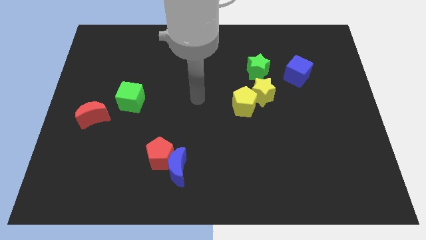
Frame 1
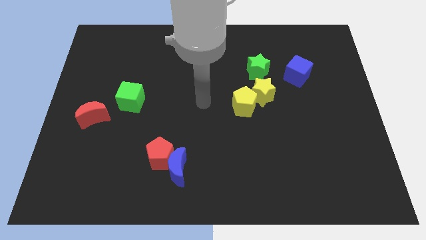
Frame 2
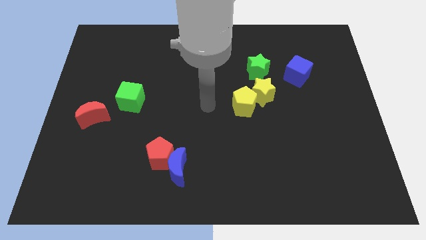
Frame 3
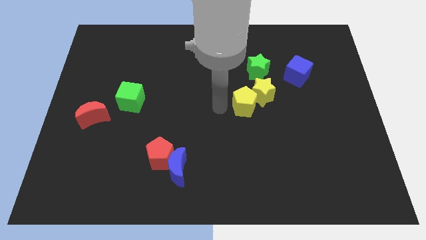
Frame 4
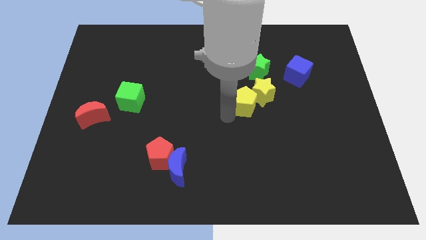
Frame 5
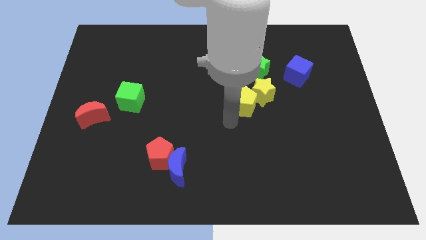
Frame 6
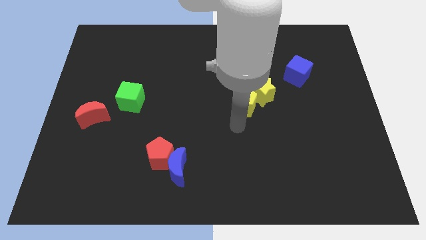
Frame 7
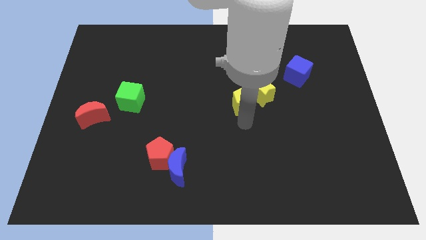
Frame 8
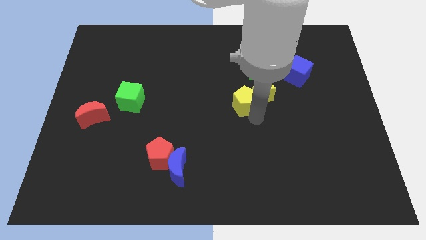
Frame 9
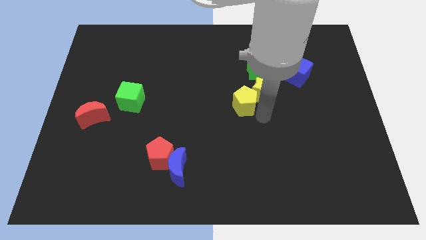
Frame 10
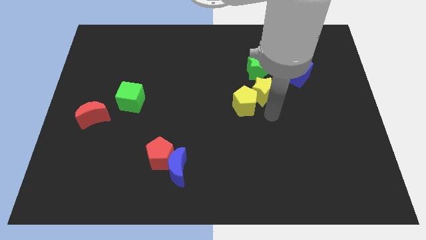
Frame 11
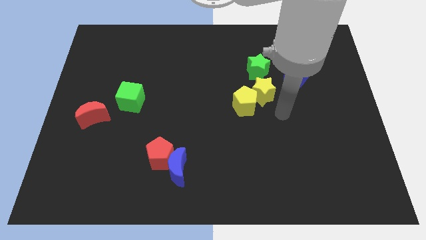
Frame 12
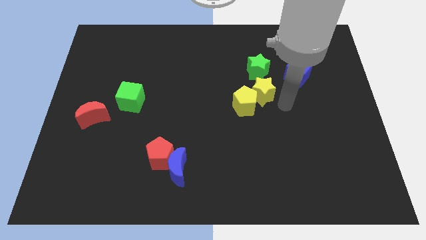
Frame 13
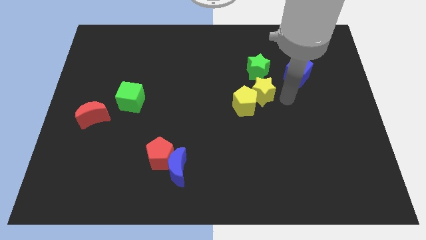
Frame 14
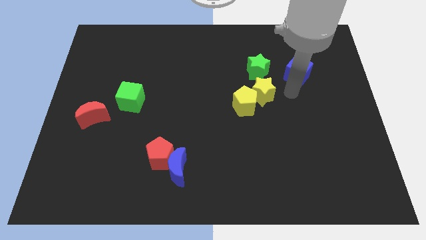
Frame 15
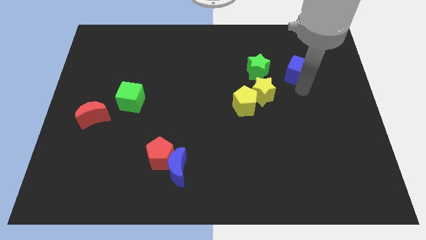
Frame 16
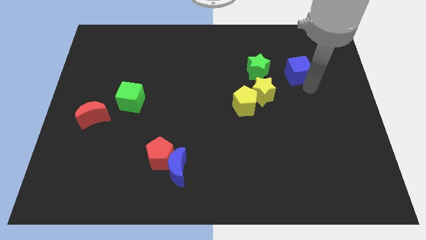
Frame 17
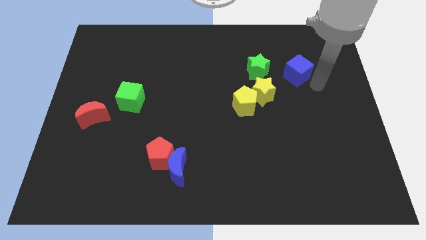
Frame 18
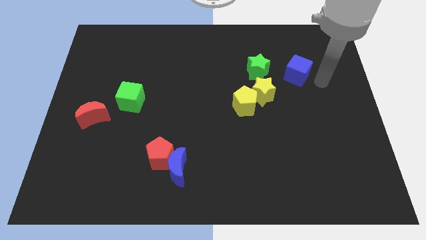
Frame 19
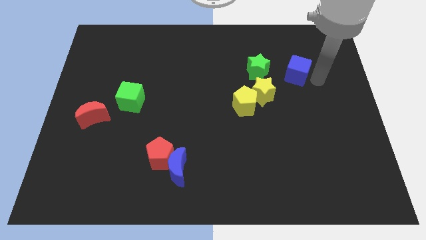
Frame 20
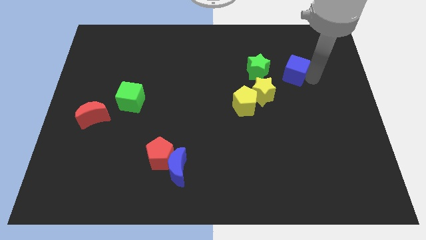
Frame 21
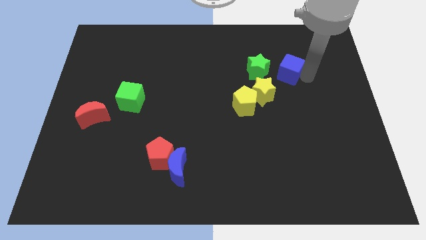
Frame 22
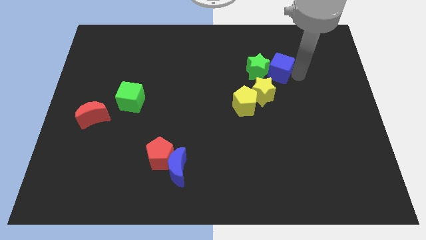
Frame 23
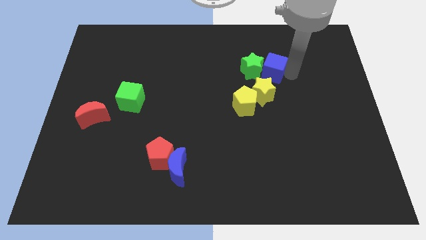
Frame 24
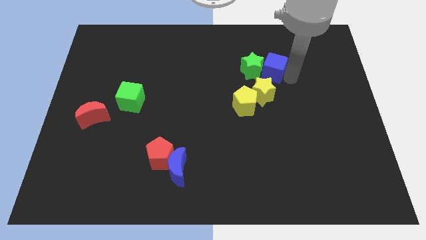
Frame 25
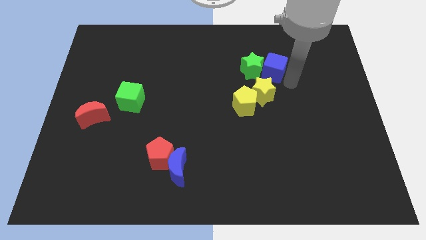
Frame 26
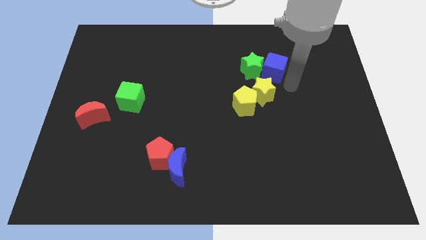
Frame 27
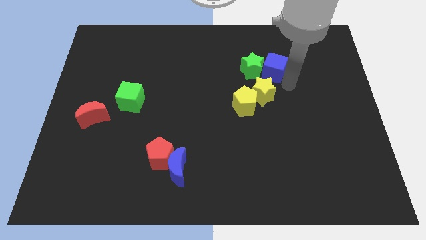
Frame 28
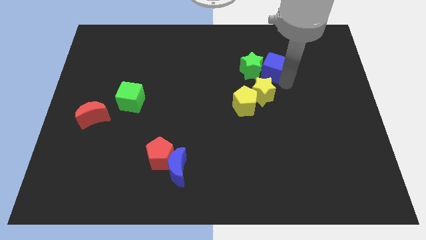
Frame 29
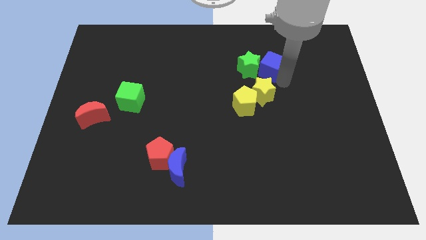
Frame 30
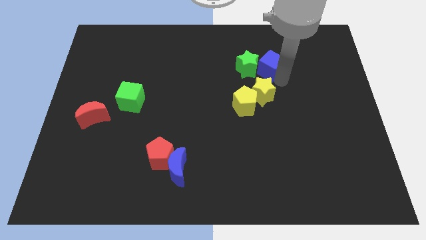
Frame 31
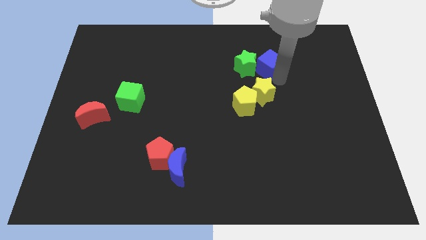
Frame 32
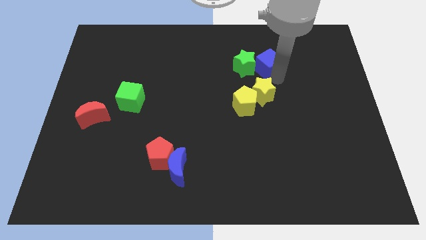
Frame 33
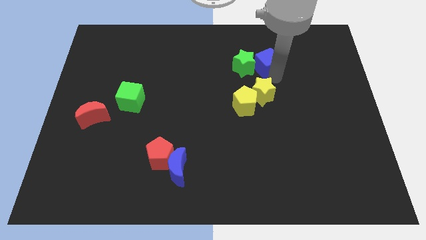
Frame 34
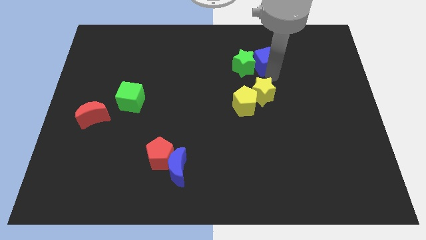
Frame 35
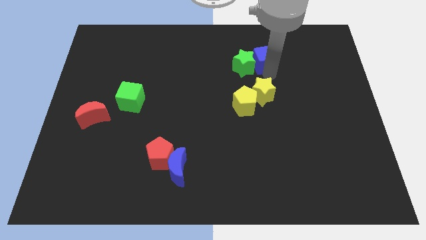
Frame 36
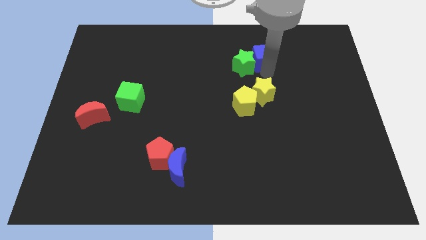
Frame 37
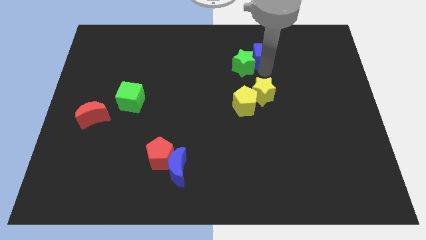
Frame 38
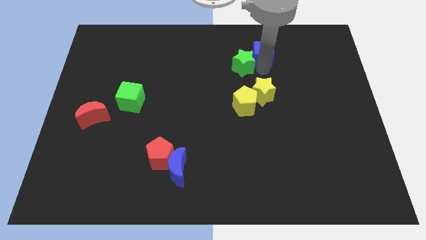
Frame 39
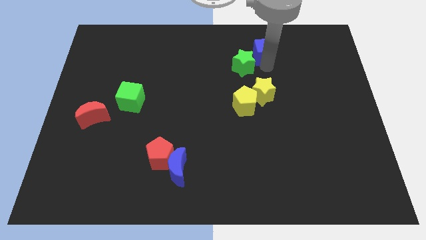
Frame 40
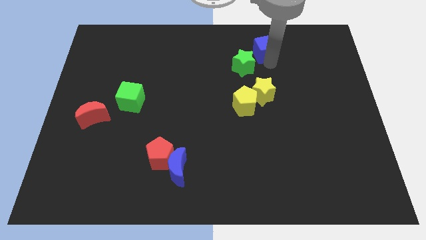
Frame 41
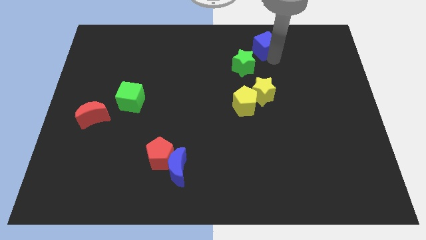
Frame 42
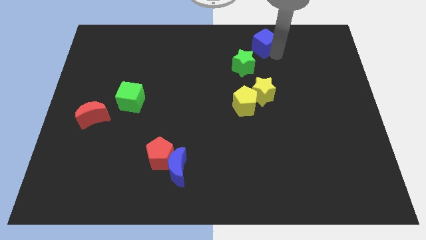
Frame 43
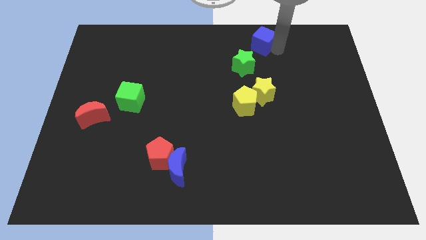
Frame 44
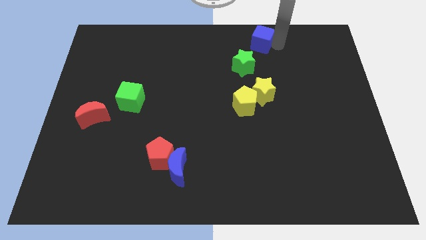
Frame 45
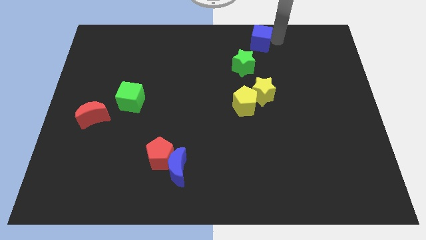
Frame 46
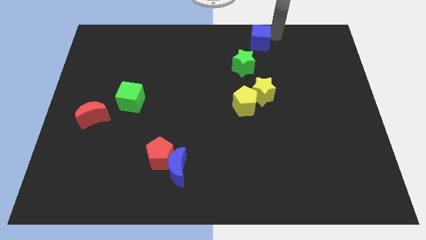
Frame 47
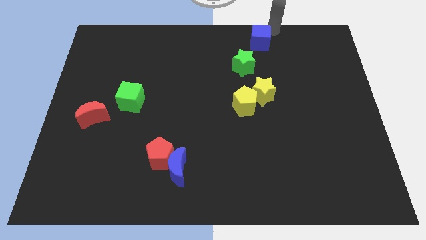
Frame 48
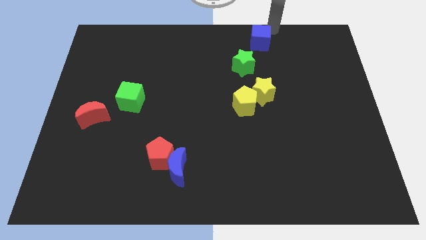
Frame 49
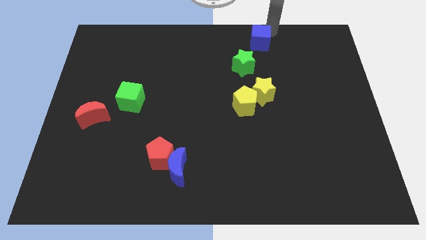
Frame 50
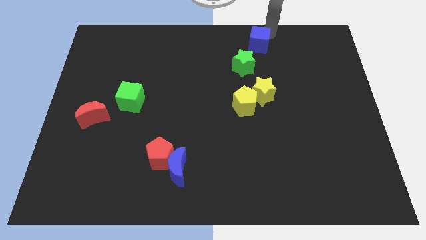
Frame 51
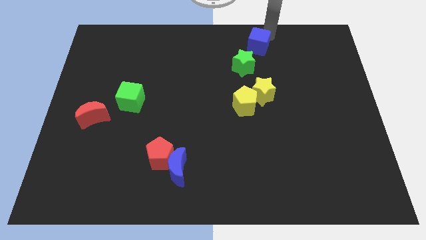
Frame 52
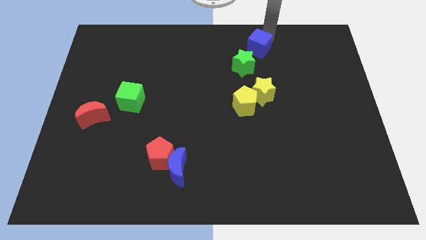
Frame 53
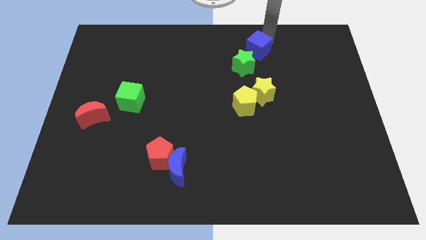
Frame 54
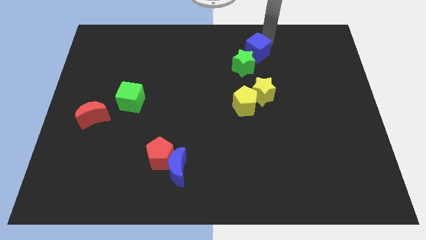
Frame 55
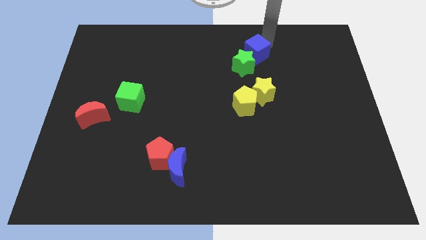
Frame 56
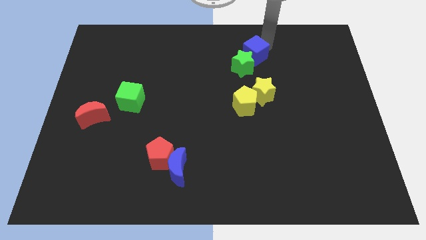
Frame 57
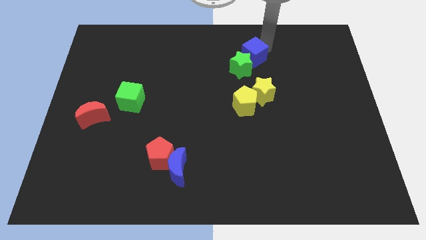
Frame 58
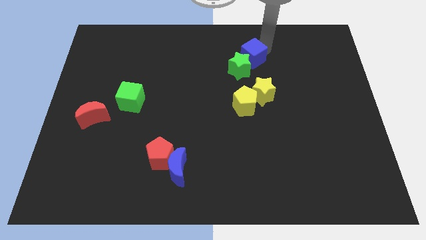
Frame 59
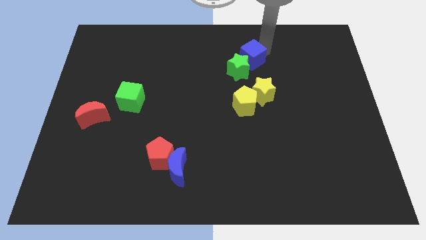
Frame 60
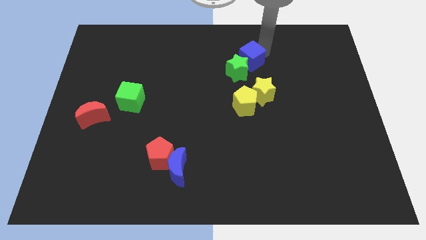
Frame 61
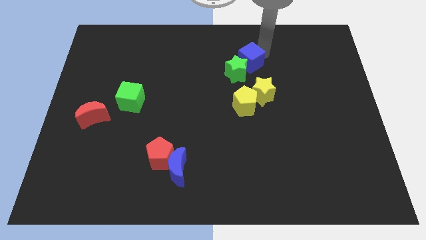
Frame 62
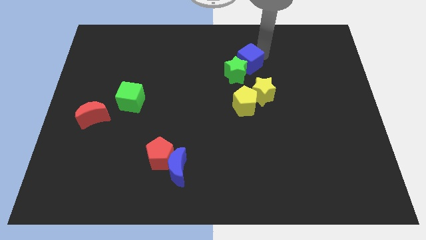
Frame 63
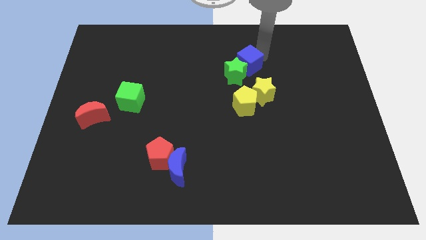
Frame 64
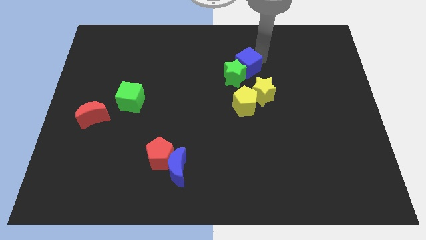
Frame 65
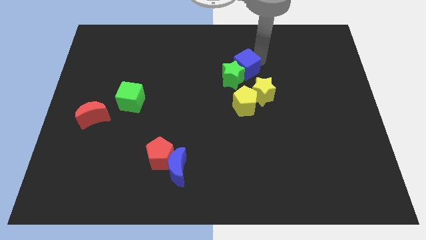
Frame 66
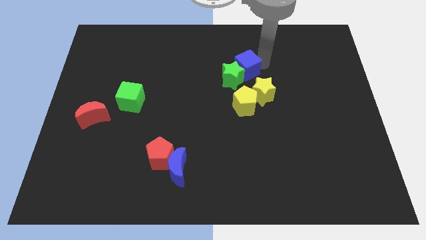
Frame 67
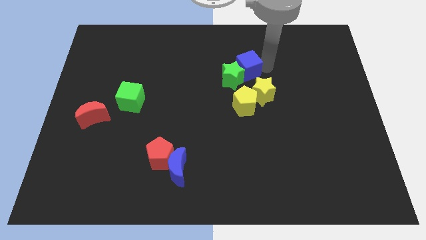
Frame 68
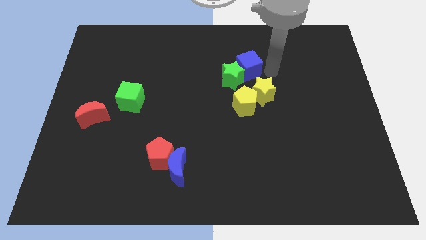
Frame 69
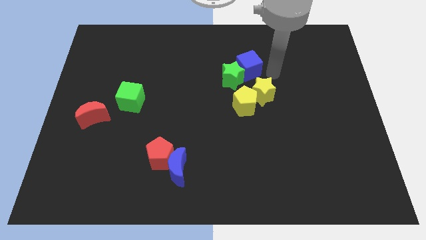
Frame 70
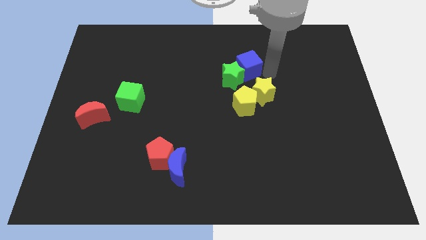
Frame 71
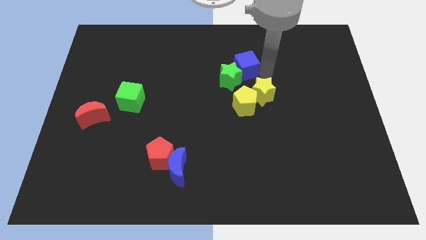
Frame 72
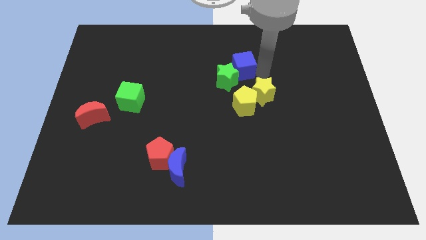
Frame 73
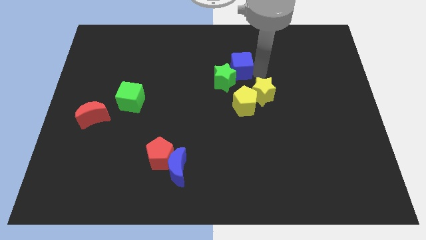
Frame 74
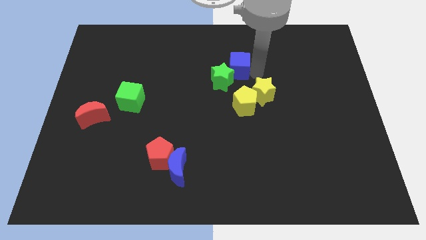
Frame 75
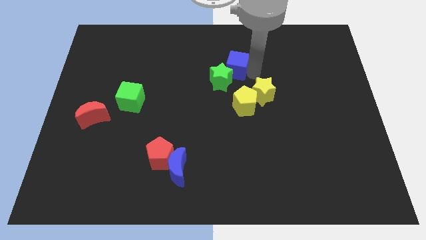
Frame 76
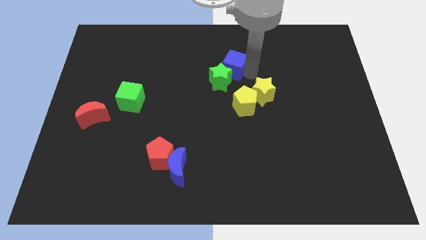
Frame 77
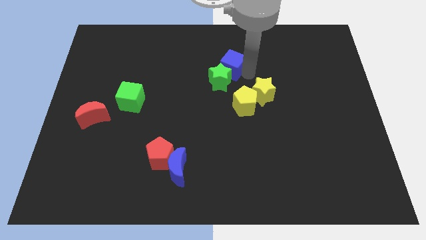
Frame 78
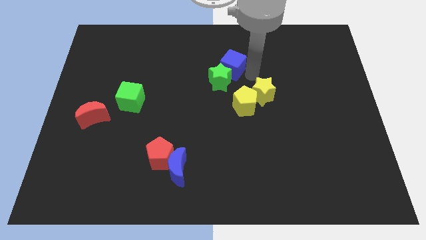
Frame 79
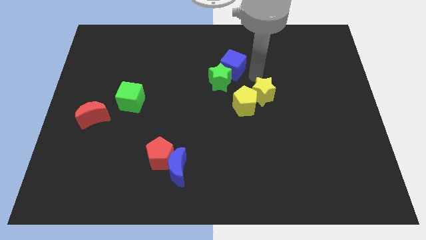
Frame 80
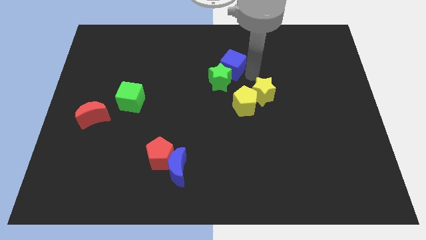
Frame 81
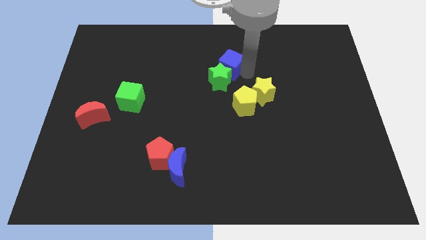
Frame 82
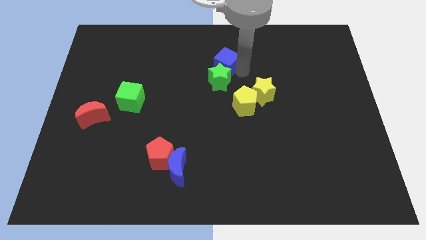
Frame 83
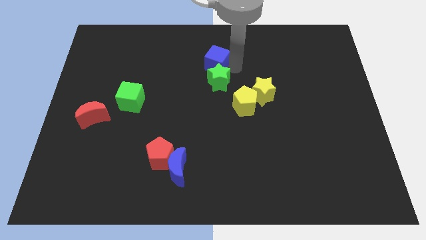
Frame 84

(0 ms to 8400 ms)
slide the blue cube to the left
